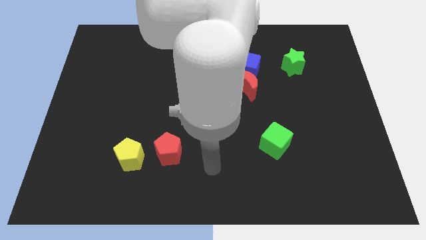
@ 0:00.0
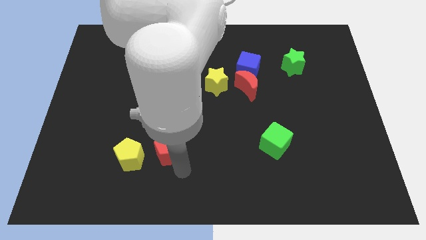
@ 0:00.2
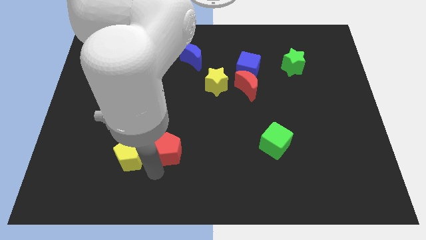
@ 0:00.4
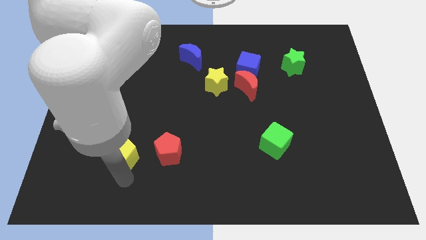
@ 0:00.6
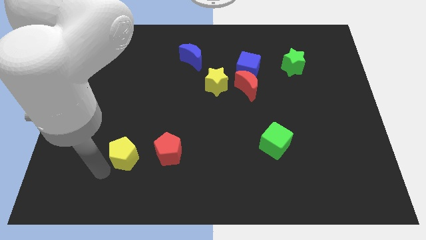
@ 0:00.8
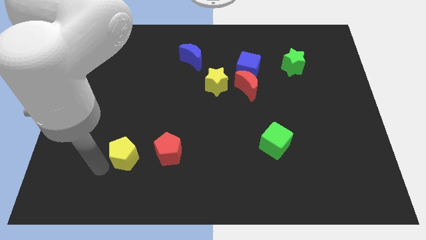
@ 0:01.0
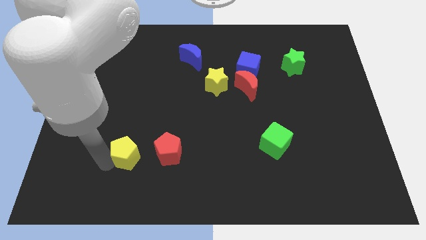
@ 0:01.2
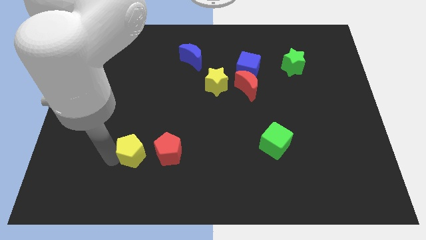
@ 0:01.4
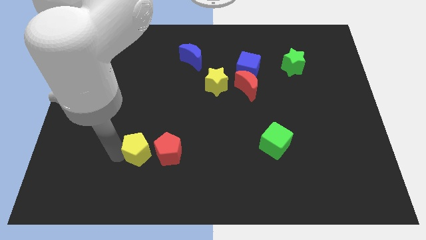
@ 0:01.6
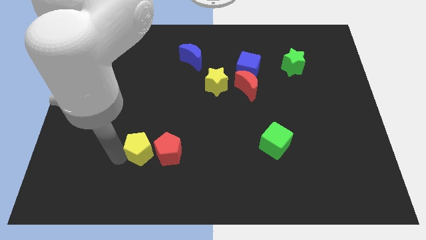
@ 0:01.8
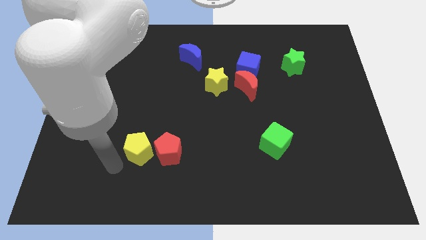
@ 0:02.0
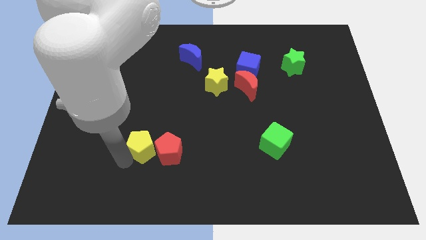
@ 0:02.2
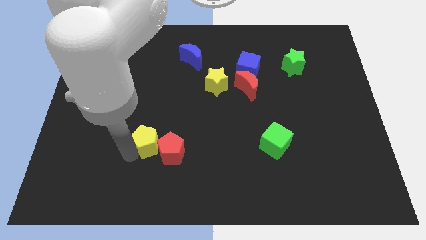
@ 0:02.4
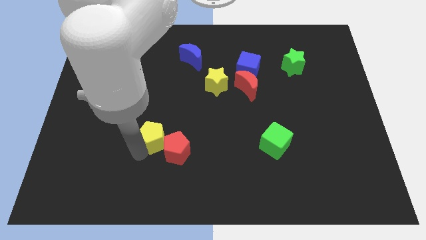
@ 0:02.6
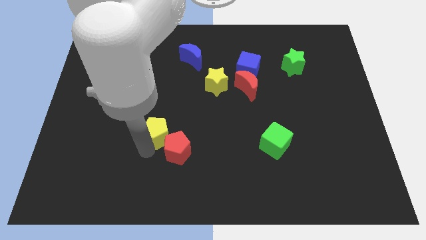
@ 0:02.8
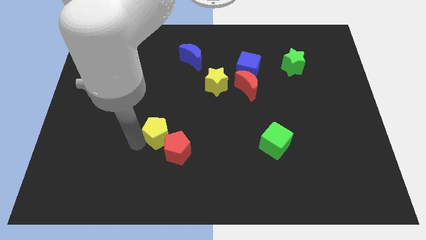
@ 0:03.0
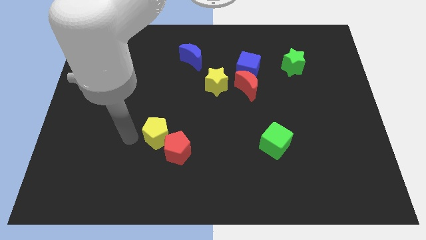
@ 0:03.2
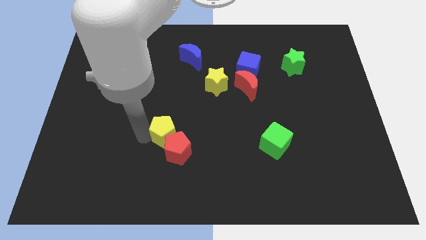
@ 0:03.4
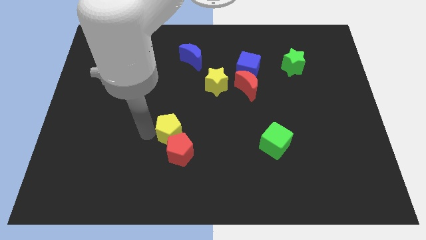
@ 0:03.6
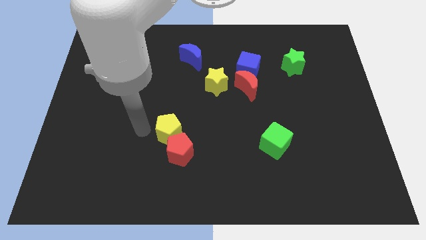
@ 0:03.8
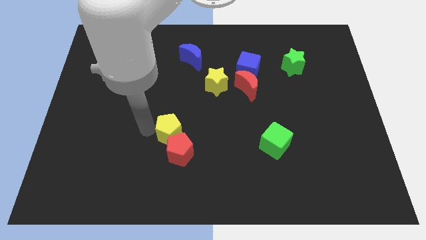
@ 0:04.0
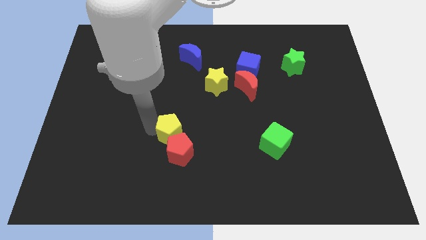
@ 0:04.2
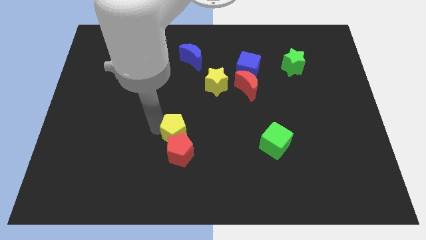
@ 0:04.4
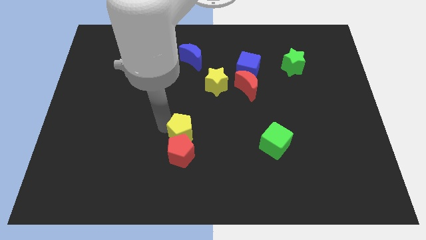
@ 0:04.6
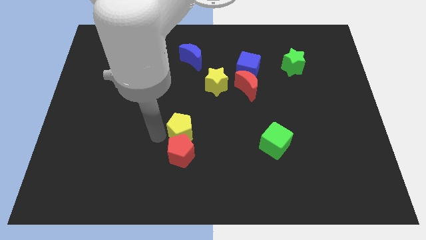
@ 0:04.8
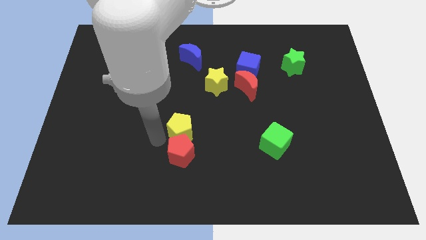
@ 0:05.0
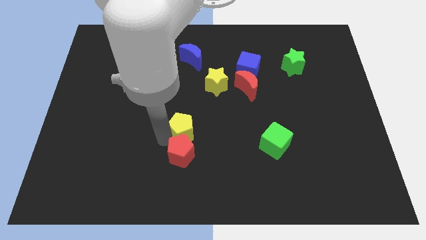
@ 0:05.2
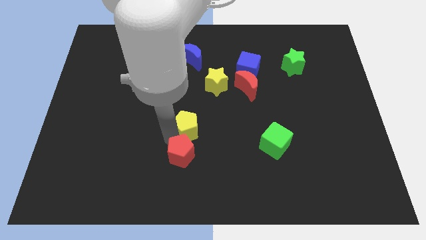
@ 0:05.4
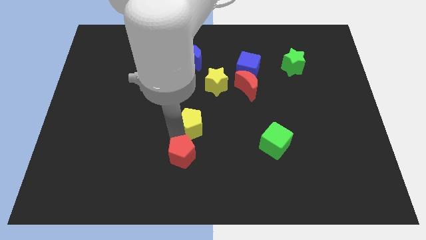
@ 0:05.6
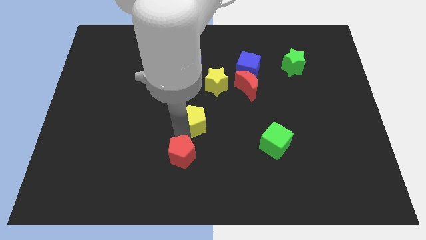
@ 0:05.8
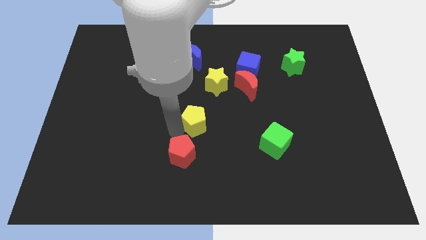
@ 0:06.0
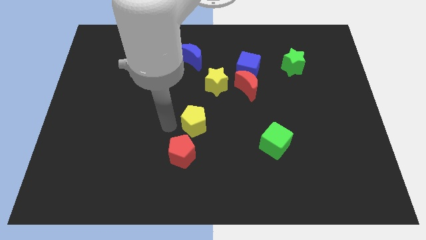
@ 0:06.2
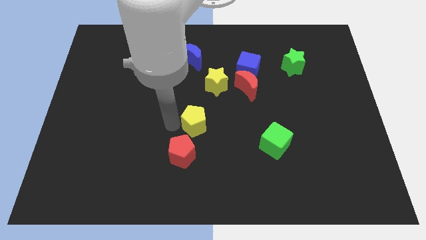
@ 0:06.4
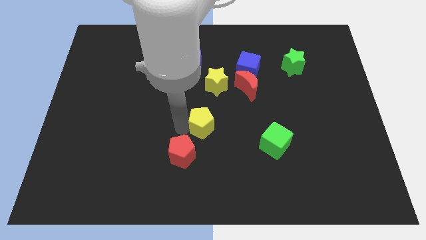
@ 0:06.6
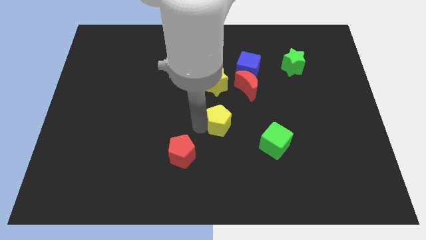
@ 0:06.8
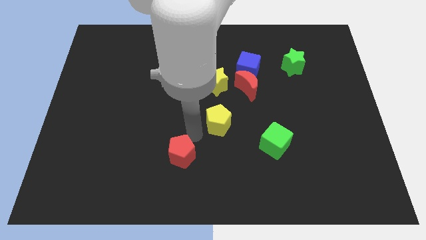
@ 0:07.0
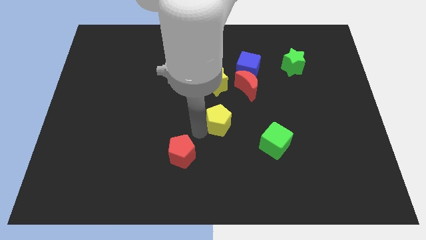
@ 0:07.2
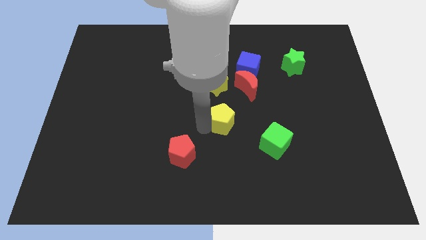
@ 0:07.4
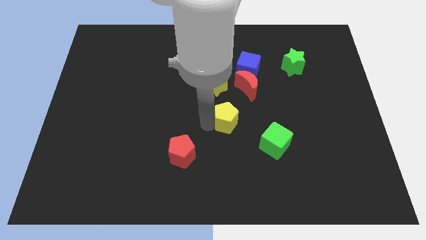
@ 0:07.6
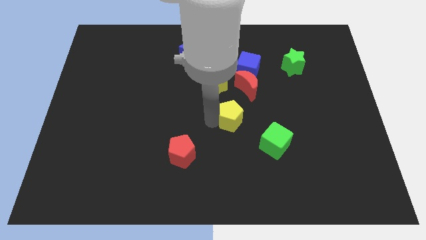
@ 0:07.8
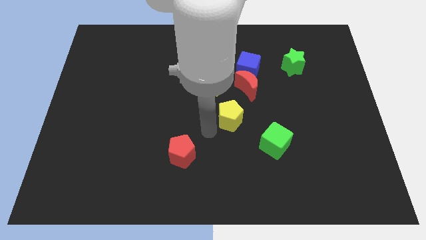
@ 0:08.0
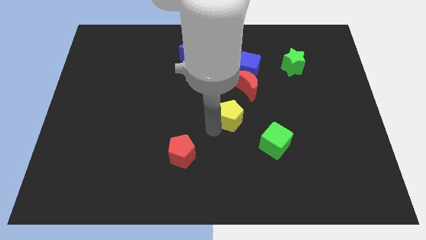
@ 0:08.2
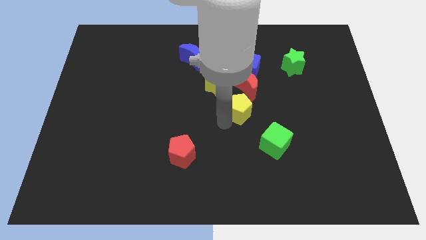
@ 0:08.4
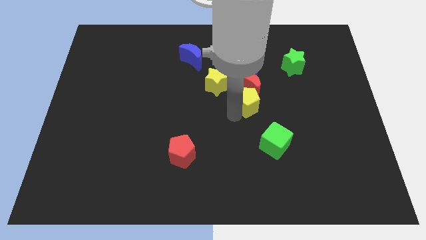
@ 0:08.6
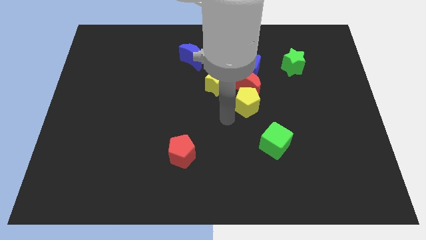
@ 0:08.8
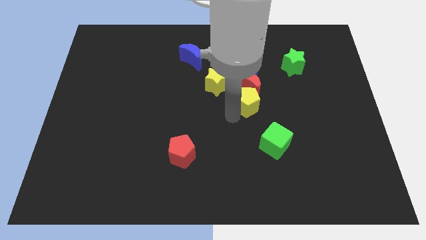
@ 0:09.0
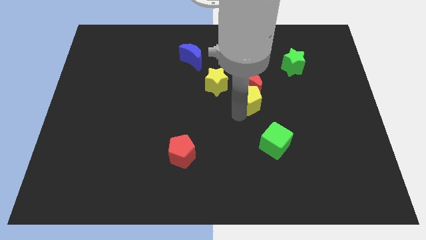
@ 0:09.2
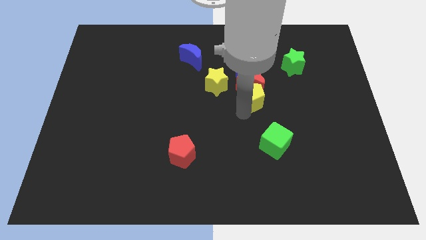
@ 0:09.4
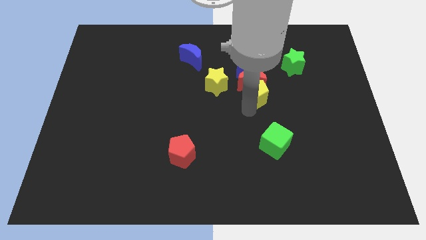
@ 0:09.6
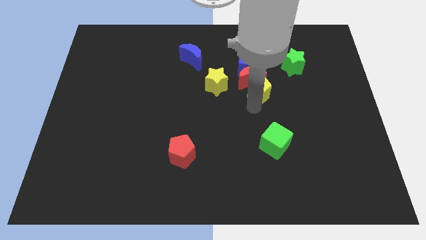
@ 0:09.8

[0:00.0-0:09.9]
slide the yellow pentagon diagonally down and to the left of the green star

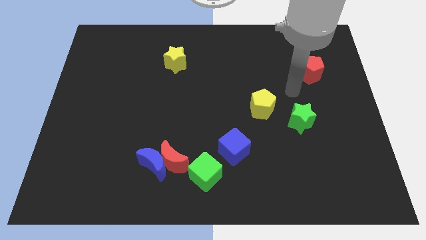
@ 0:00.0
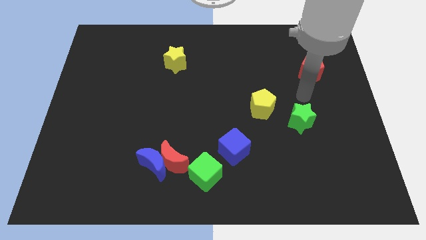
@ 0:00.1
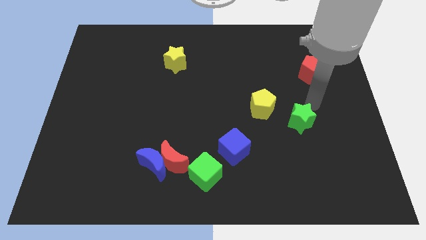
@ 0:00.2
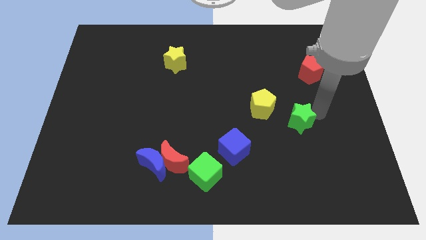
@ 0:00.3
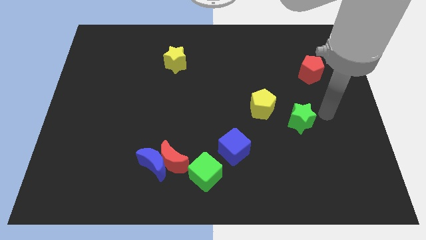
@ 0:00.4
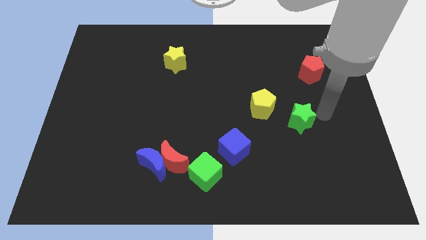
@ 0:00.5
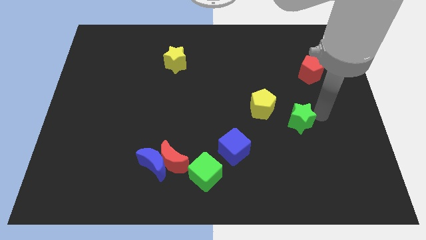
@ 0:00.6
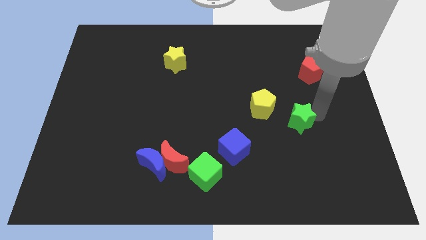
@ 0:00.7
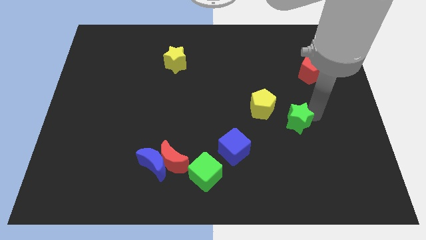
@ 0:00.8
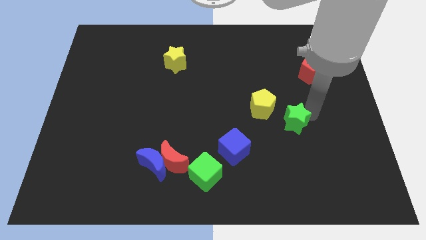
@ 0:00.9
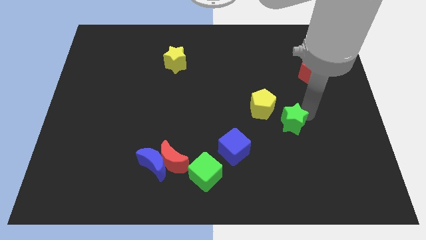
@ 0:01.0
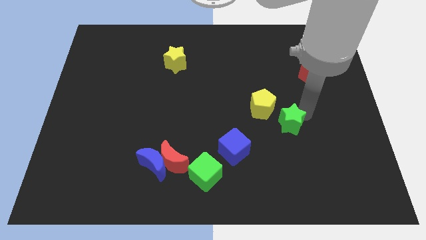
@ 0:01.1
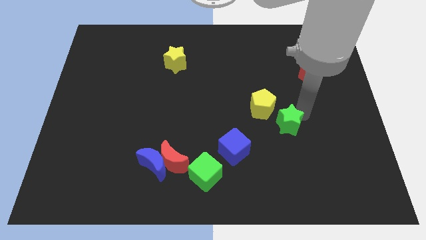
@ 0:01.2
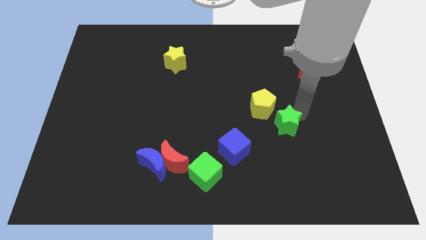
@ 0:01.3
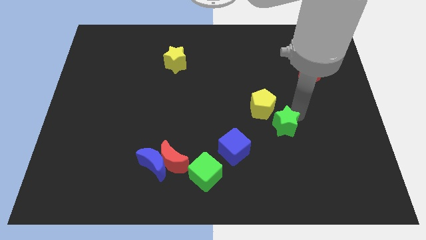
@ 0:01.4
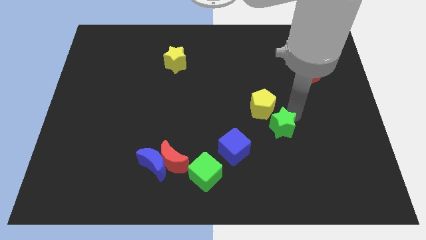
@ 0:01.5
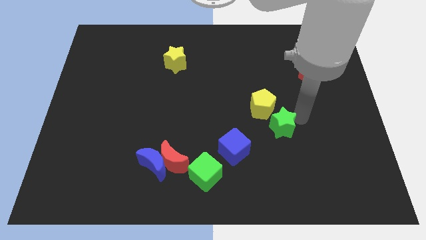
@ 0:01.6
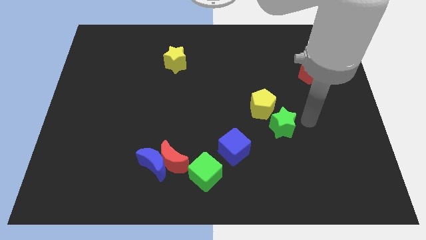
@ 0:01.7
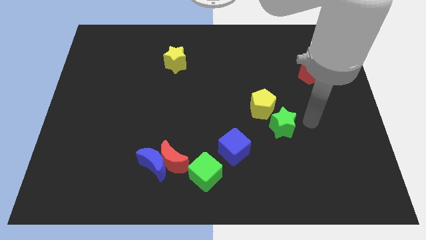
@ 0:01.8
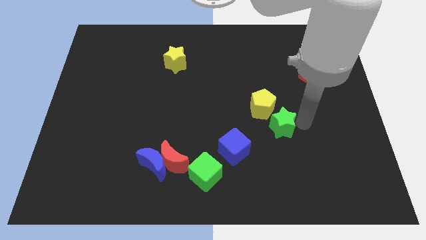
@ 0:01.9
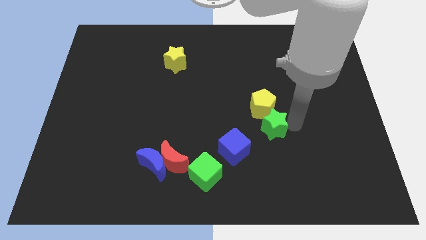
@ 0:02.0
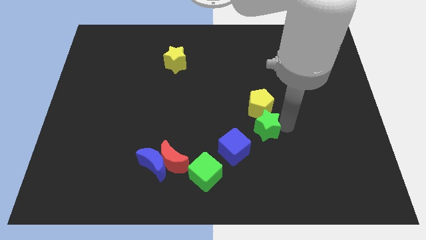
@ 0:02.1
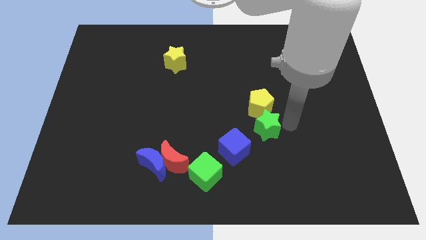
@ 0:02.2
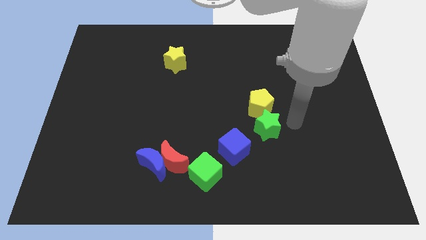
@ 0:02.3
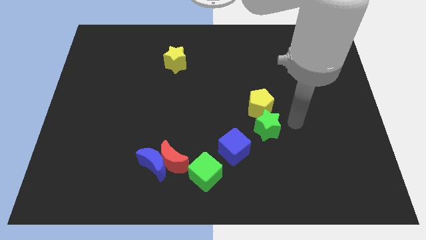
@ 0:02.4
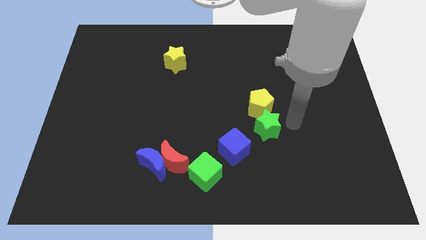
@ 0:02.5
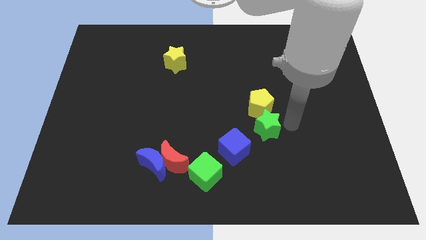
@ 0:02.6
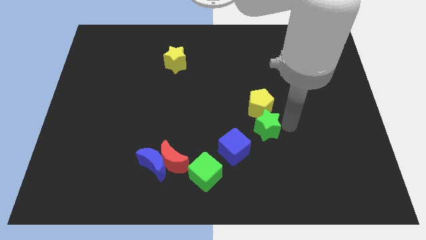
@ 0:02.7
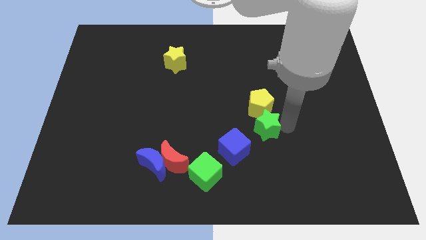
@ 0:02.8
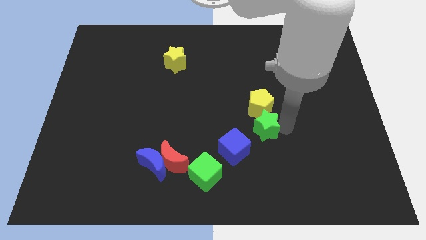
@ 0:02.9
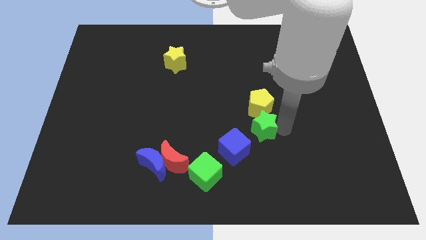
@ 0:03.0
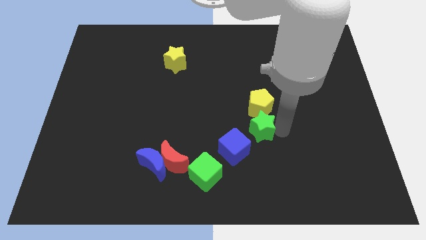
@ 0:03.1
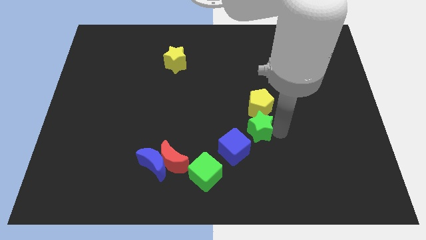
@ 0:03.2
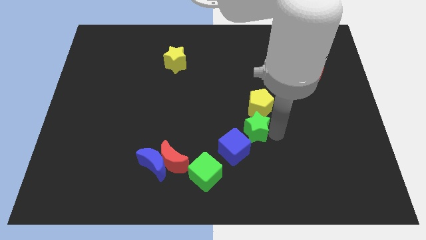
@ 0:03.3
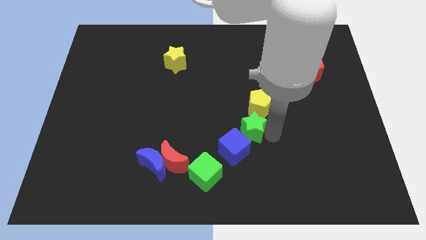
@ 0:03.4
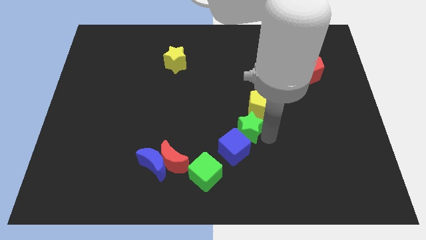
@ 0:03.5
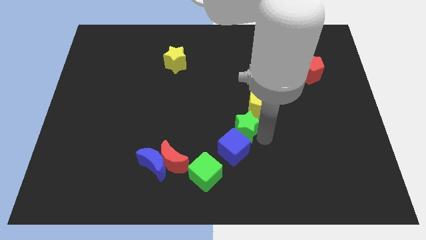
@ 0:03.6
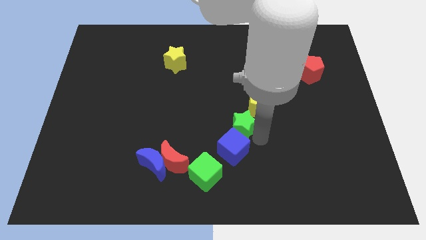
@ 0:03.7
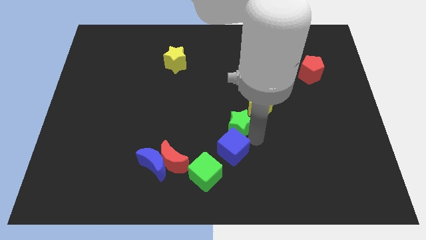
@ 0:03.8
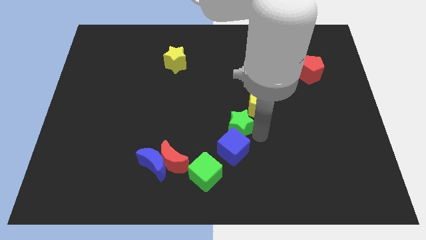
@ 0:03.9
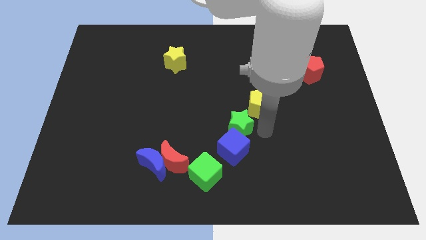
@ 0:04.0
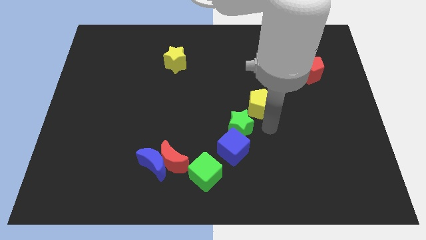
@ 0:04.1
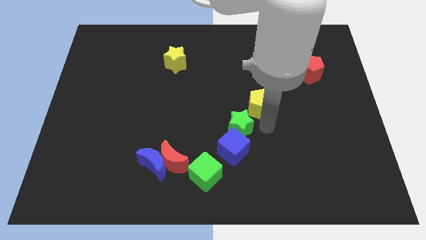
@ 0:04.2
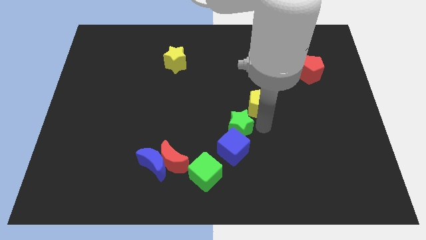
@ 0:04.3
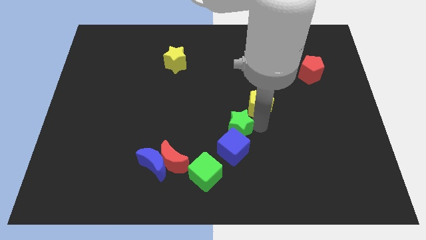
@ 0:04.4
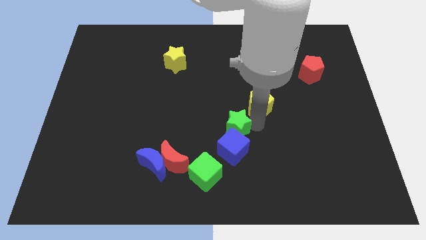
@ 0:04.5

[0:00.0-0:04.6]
move the green star diagonally up and to the left of the blue cube
